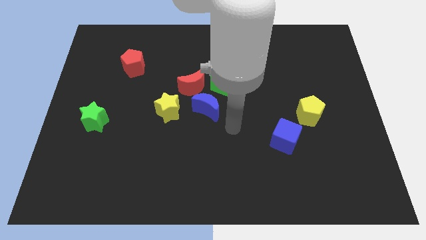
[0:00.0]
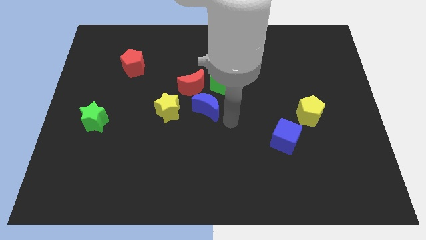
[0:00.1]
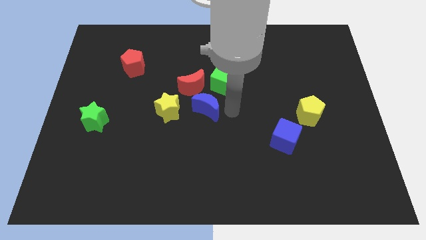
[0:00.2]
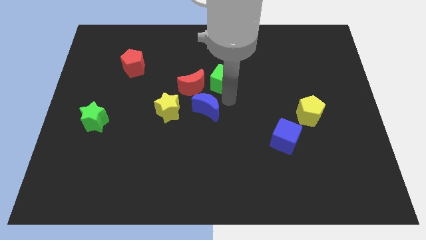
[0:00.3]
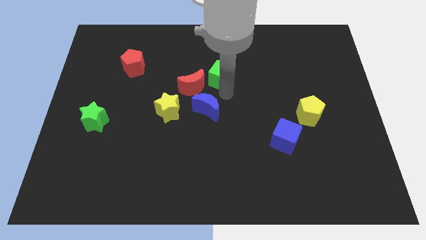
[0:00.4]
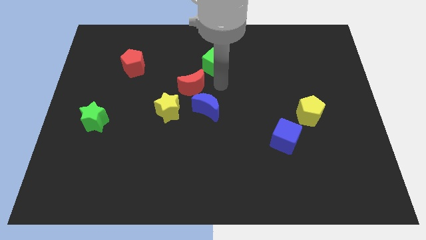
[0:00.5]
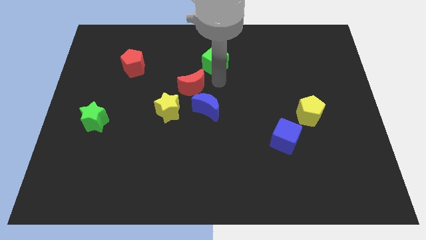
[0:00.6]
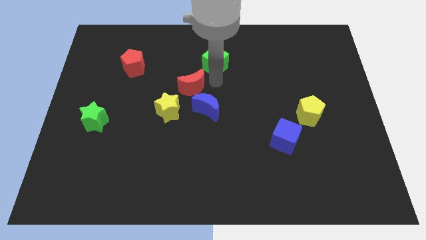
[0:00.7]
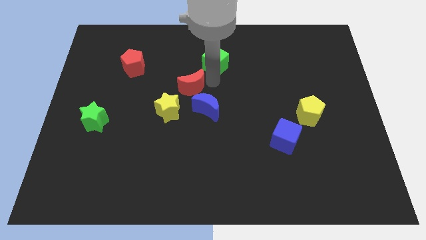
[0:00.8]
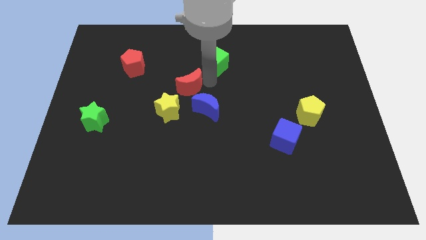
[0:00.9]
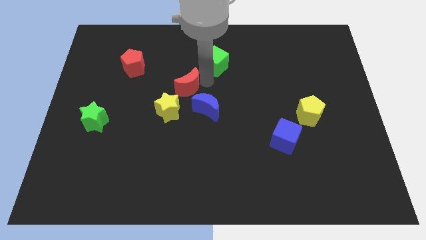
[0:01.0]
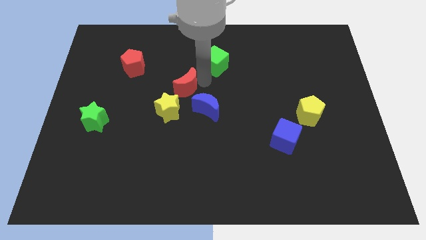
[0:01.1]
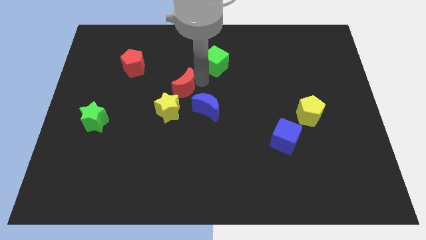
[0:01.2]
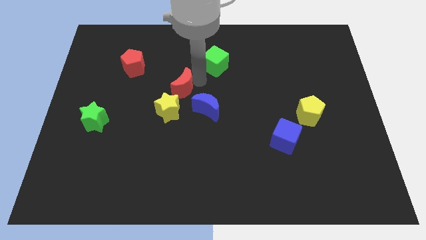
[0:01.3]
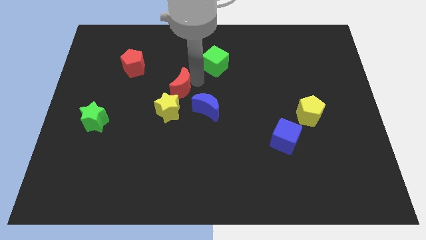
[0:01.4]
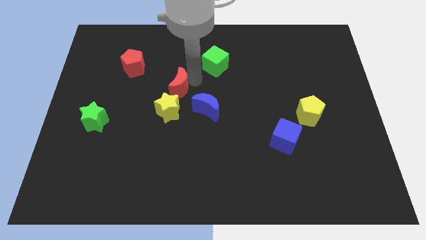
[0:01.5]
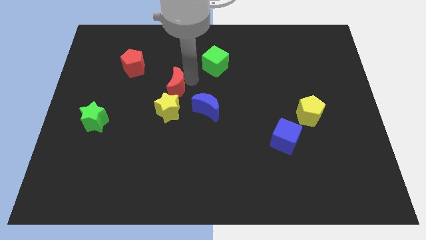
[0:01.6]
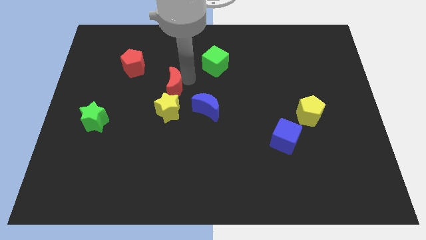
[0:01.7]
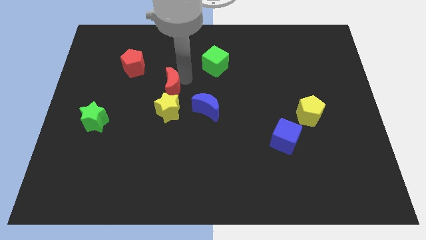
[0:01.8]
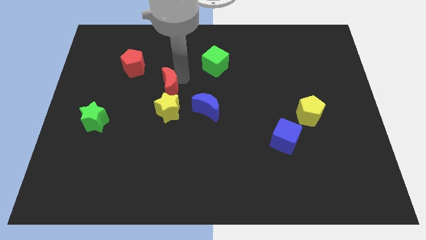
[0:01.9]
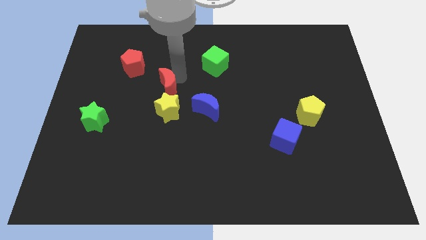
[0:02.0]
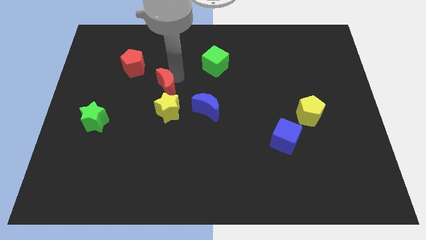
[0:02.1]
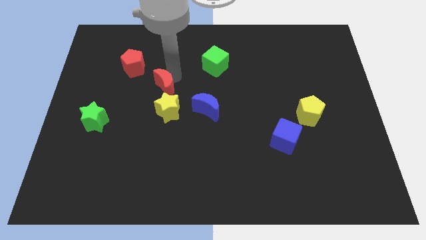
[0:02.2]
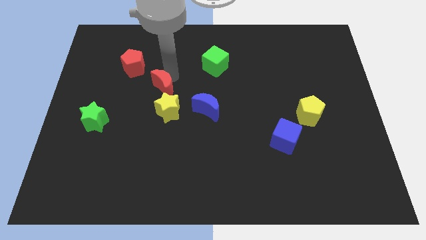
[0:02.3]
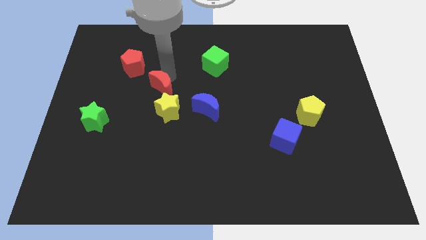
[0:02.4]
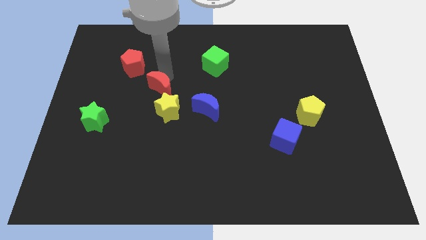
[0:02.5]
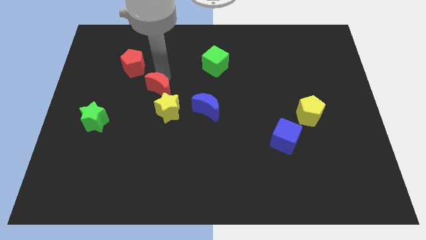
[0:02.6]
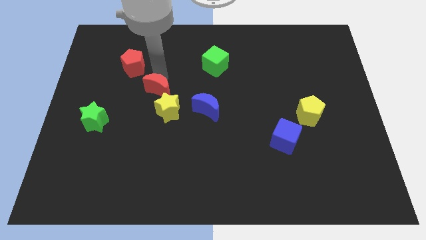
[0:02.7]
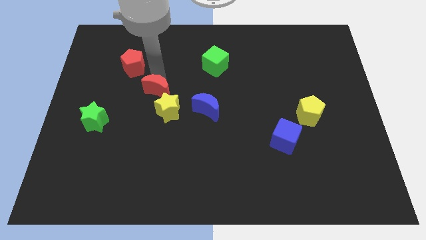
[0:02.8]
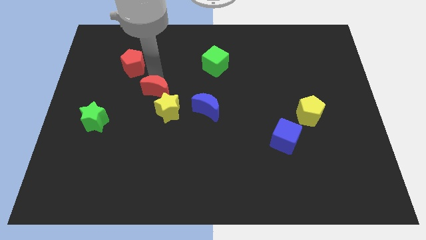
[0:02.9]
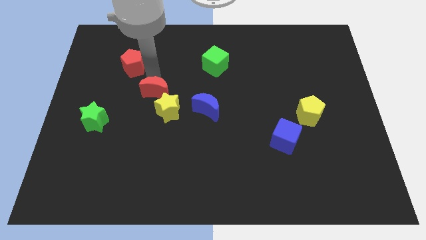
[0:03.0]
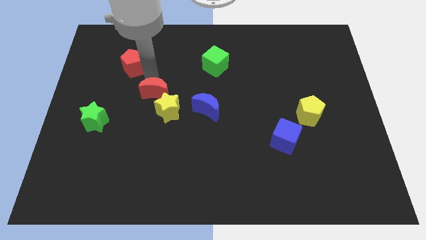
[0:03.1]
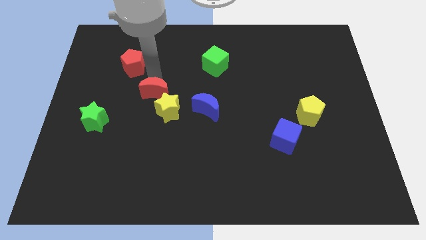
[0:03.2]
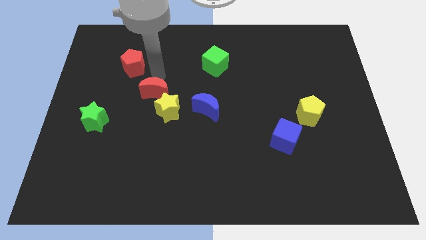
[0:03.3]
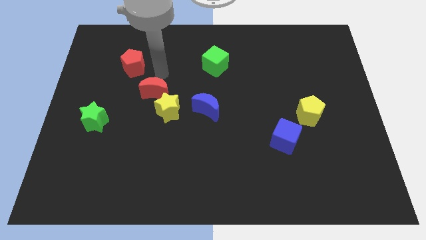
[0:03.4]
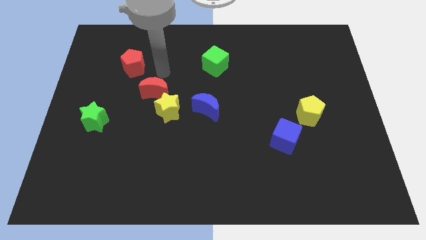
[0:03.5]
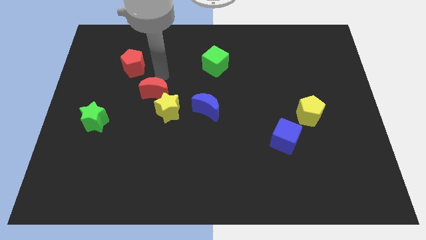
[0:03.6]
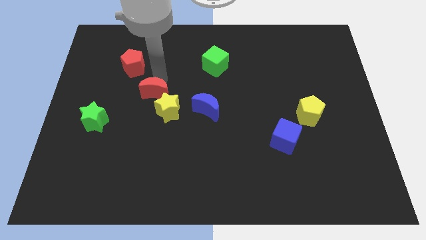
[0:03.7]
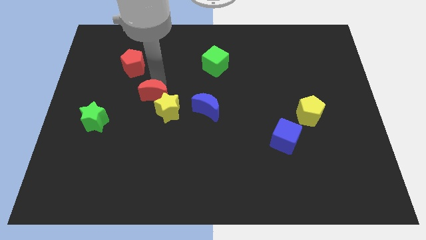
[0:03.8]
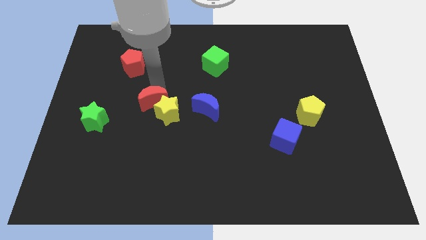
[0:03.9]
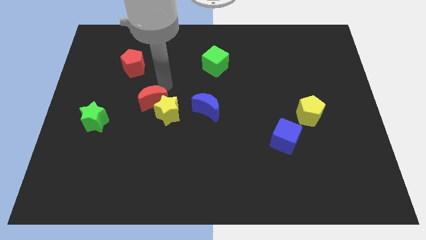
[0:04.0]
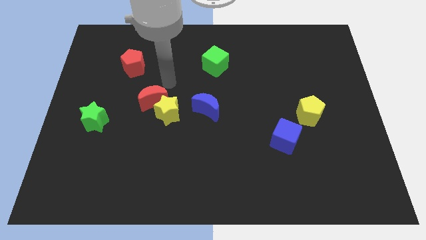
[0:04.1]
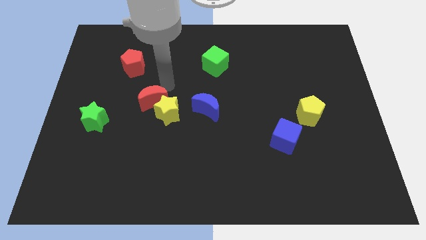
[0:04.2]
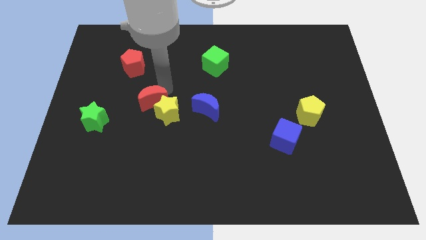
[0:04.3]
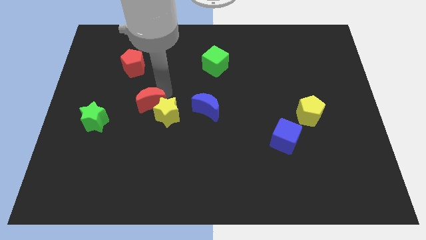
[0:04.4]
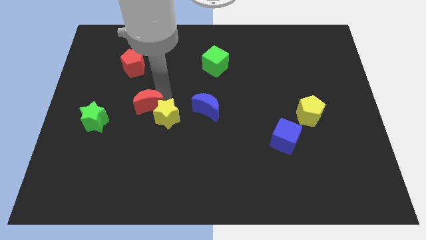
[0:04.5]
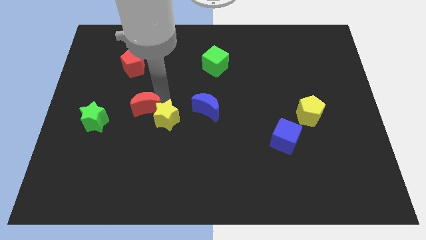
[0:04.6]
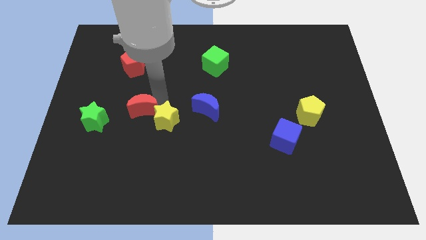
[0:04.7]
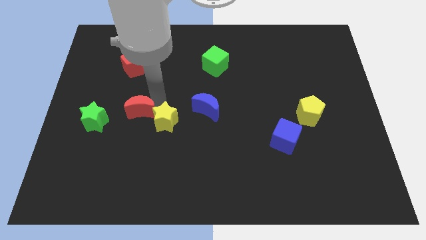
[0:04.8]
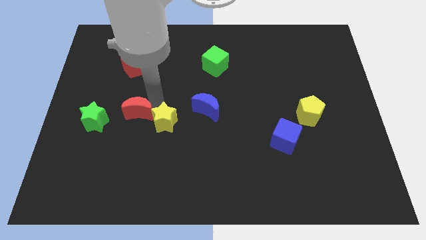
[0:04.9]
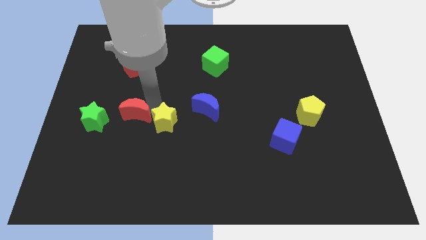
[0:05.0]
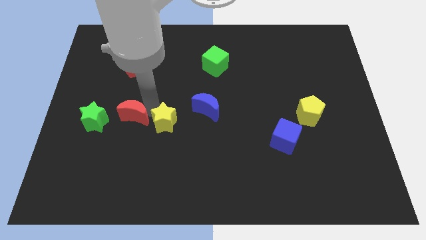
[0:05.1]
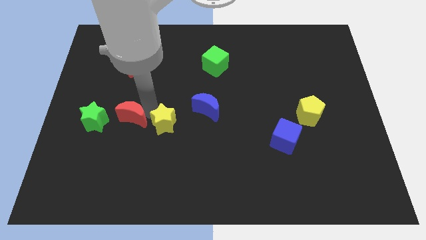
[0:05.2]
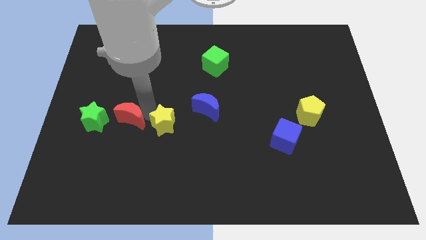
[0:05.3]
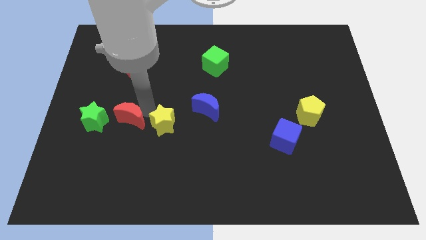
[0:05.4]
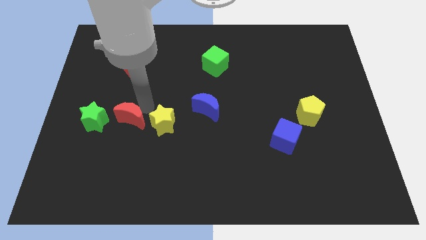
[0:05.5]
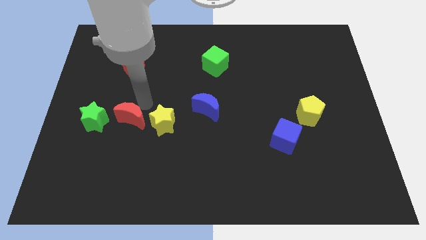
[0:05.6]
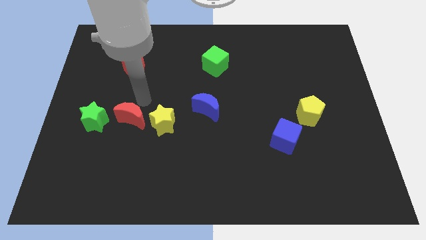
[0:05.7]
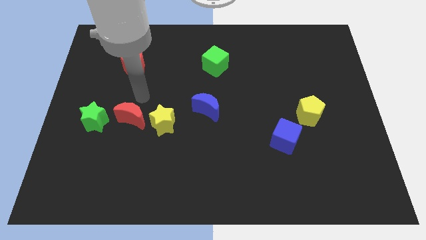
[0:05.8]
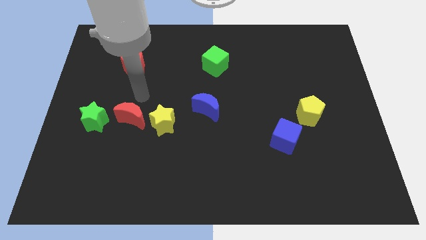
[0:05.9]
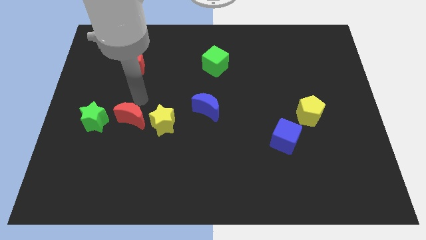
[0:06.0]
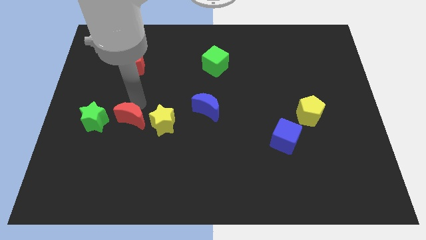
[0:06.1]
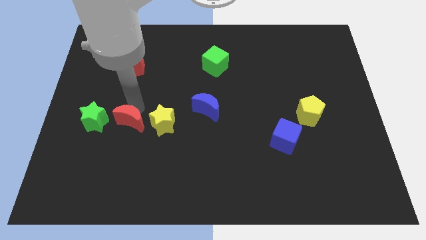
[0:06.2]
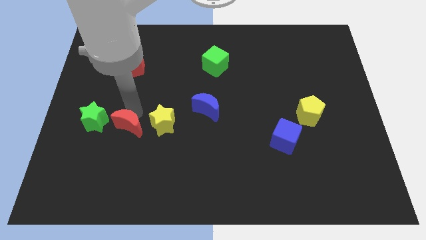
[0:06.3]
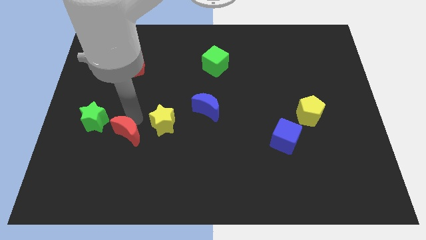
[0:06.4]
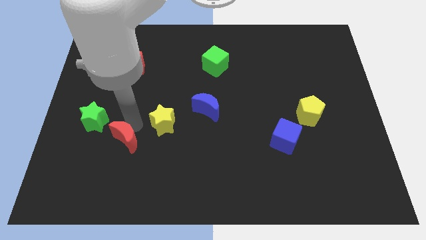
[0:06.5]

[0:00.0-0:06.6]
move the red moon down and left diagonally

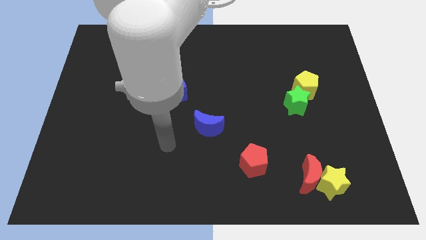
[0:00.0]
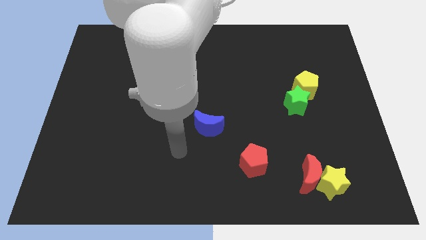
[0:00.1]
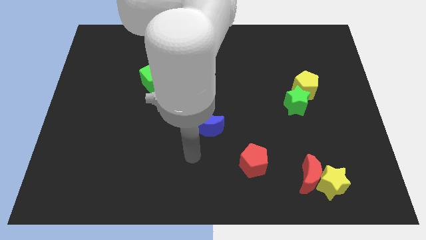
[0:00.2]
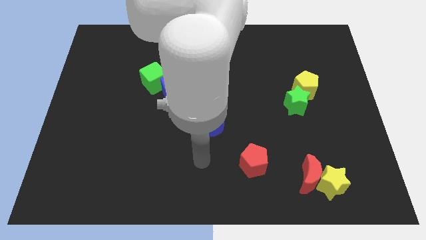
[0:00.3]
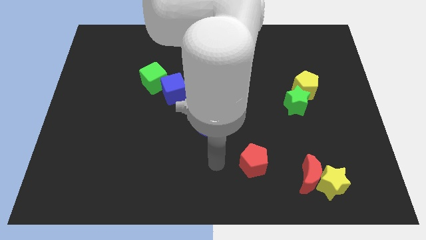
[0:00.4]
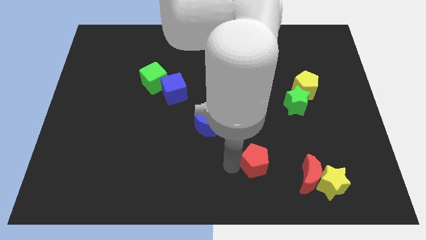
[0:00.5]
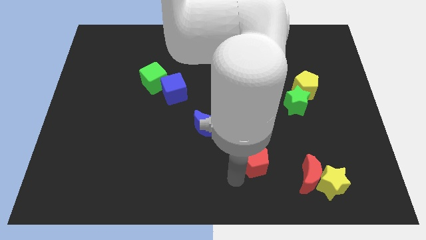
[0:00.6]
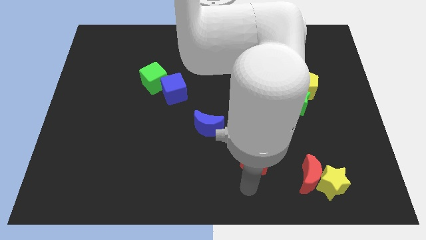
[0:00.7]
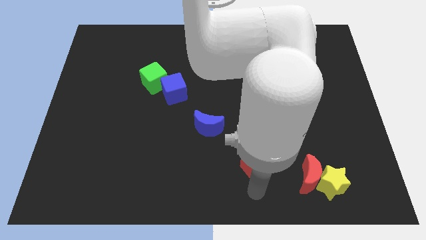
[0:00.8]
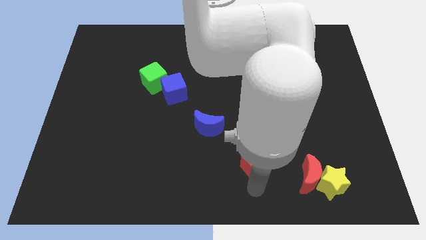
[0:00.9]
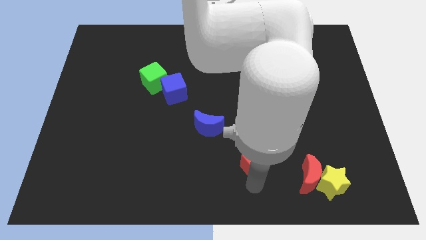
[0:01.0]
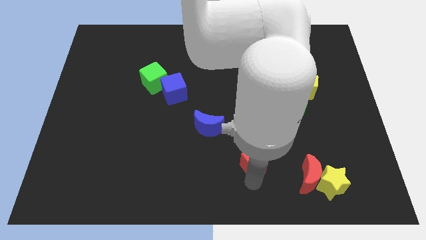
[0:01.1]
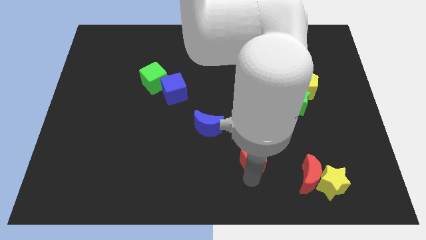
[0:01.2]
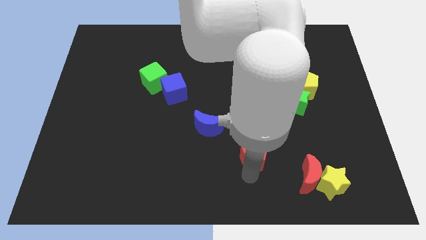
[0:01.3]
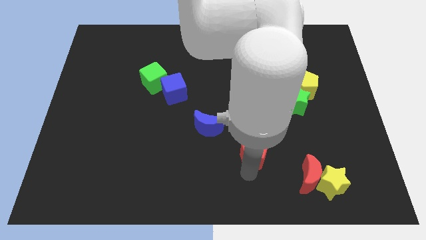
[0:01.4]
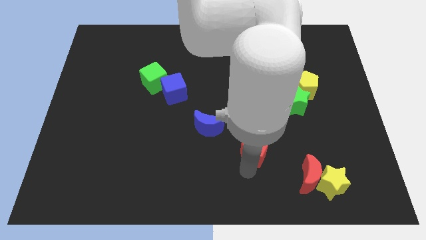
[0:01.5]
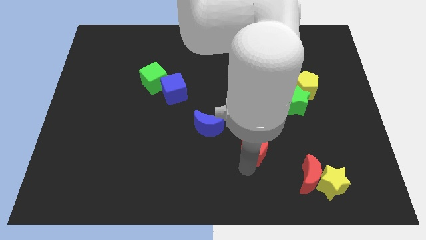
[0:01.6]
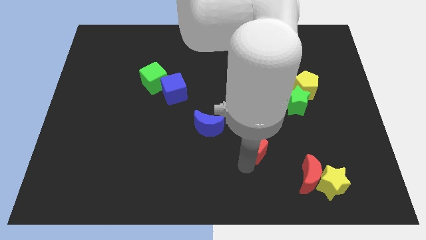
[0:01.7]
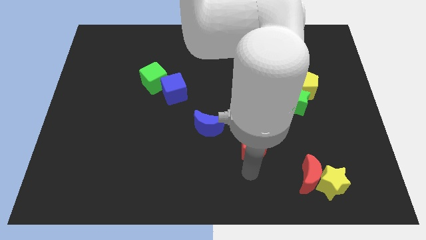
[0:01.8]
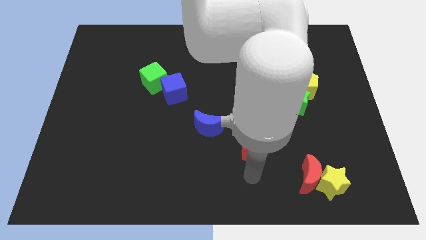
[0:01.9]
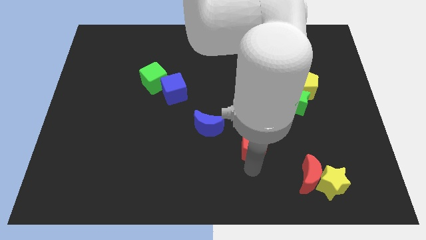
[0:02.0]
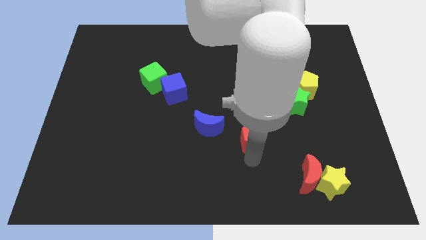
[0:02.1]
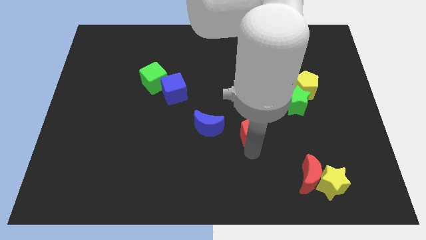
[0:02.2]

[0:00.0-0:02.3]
push the red pentagon a bit upwards
